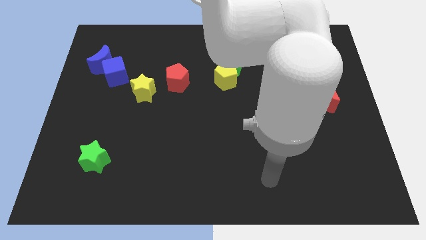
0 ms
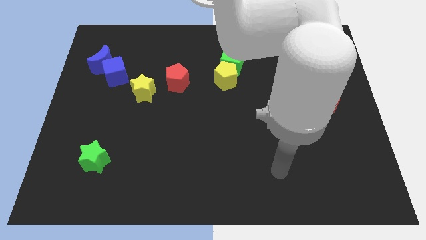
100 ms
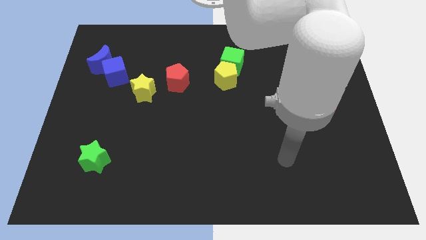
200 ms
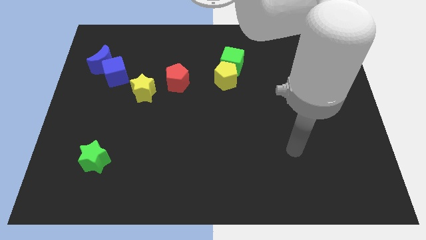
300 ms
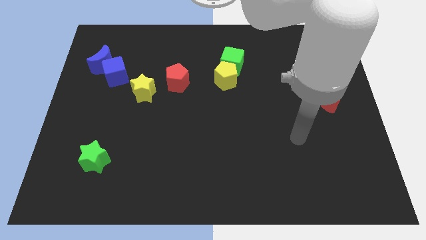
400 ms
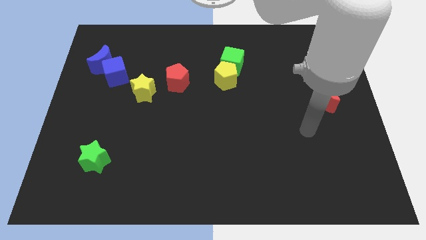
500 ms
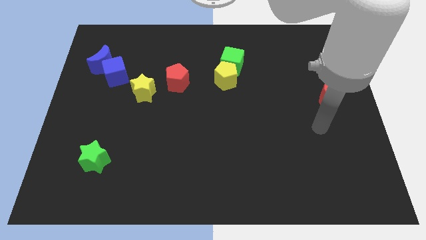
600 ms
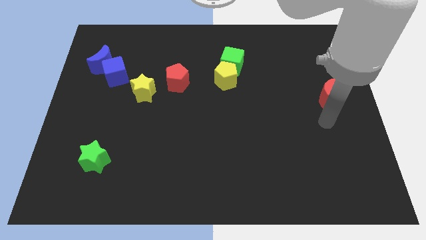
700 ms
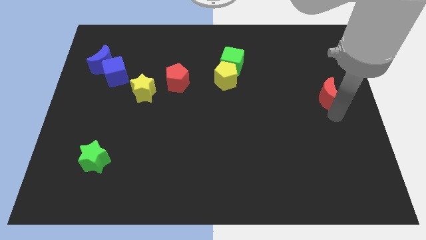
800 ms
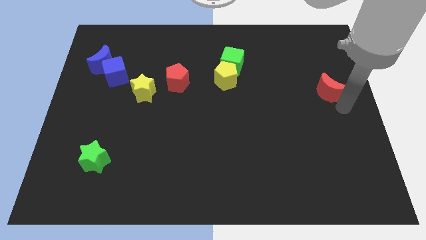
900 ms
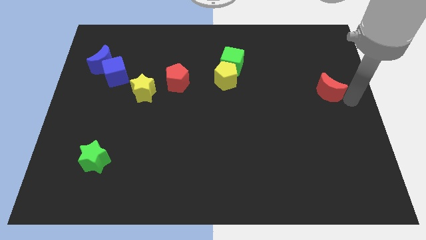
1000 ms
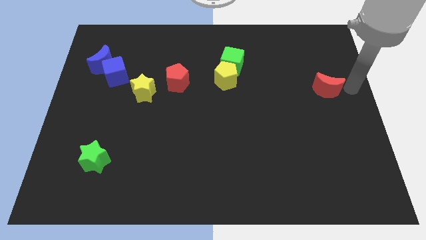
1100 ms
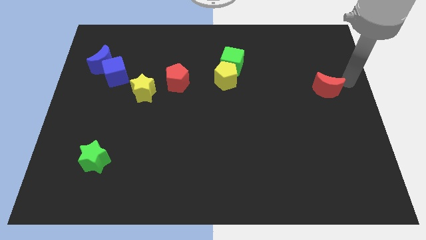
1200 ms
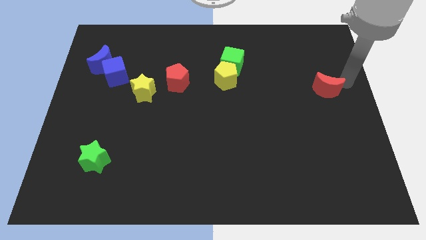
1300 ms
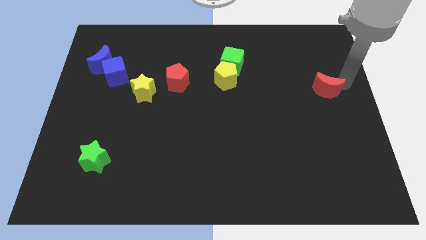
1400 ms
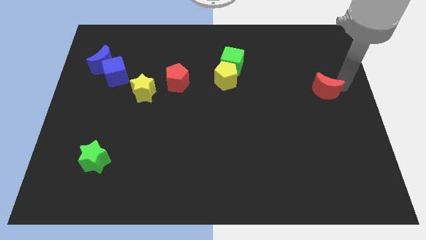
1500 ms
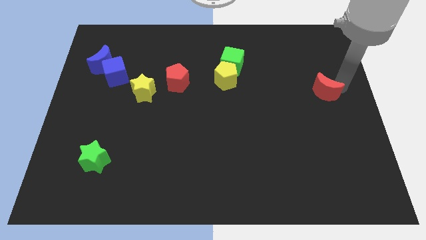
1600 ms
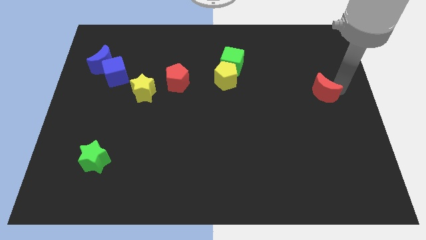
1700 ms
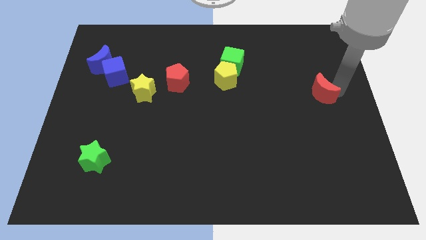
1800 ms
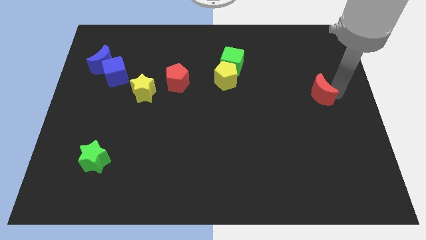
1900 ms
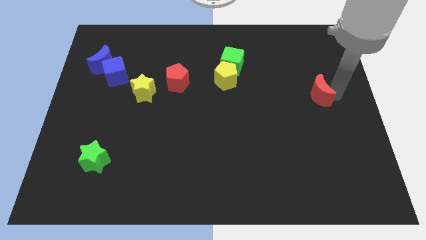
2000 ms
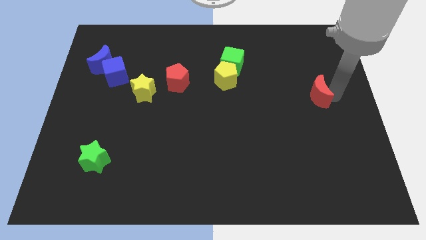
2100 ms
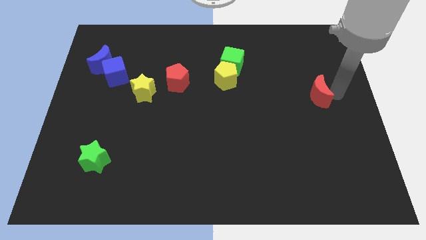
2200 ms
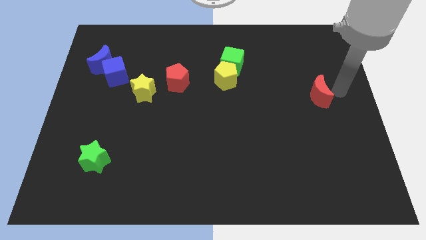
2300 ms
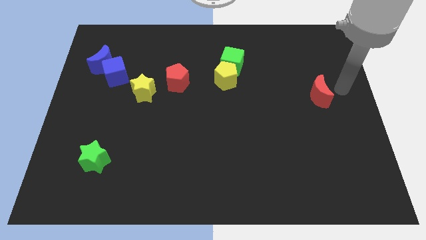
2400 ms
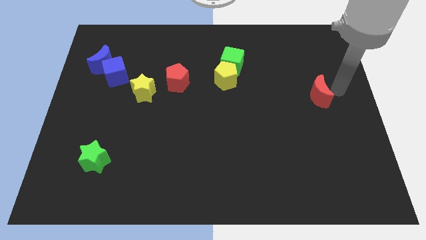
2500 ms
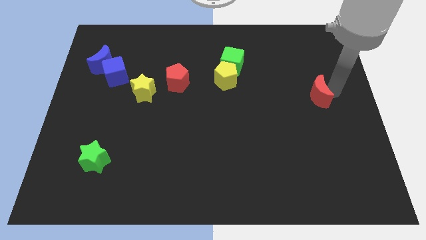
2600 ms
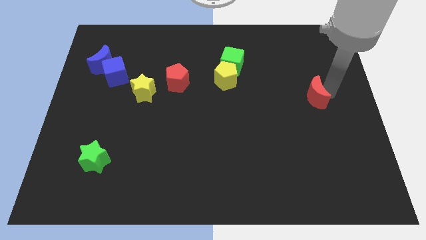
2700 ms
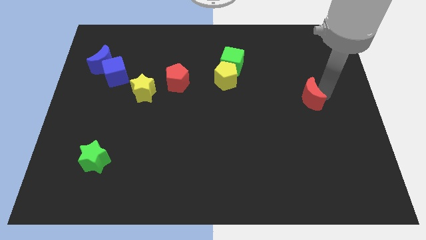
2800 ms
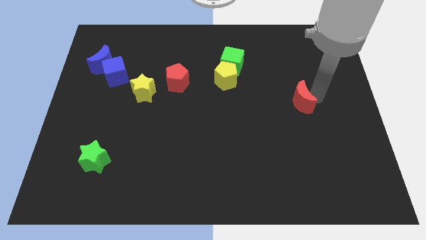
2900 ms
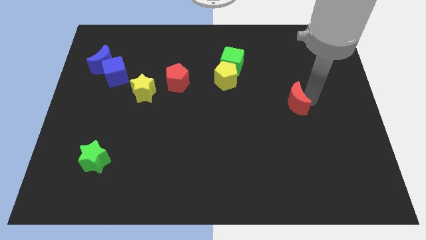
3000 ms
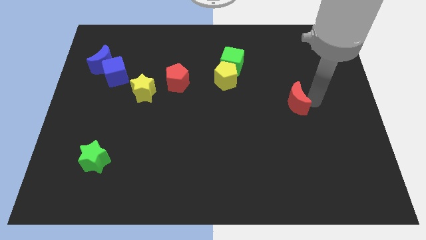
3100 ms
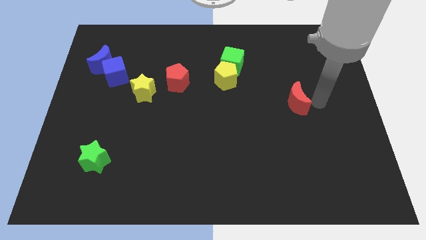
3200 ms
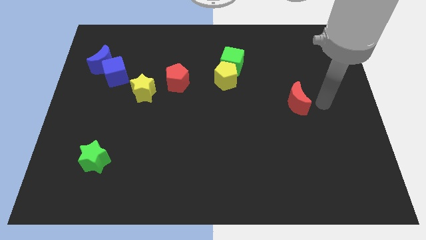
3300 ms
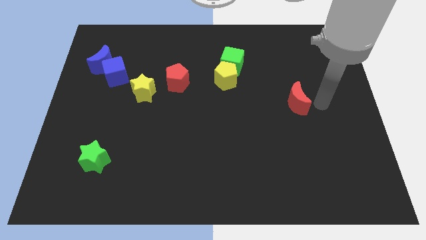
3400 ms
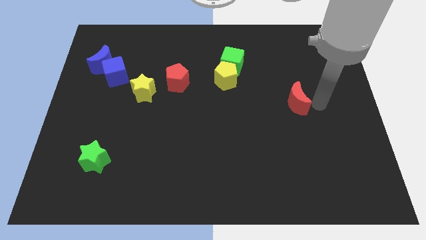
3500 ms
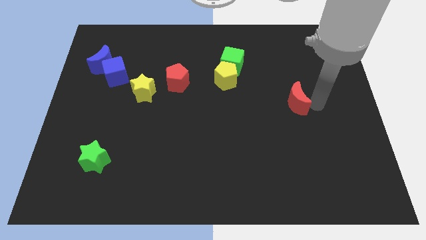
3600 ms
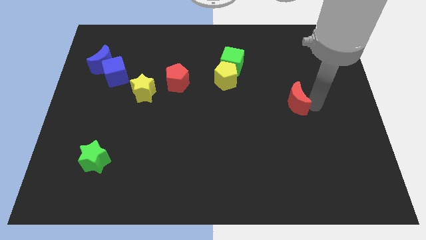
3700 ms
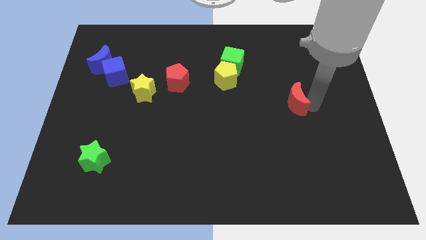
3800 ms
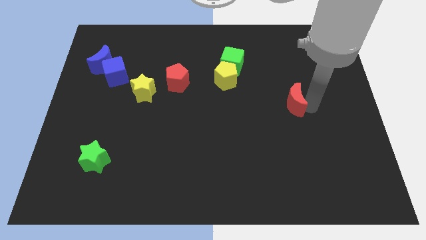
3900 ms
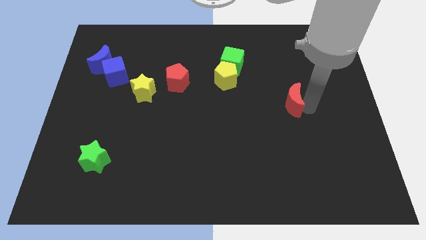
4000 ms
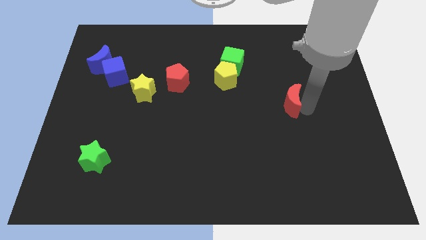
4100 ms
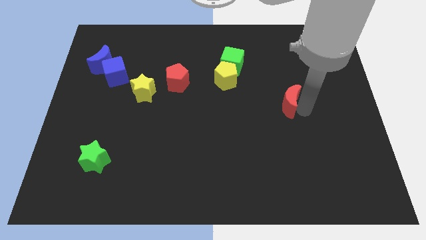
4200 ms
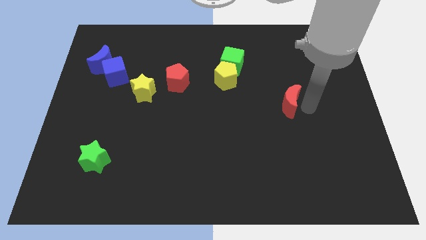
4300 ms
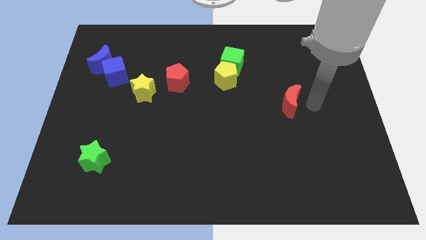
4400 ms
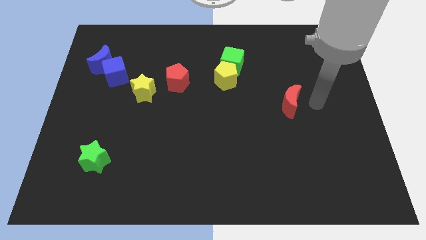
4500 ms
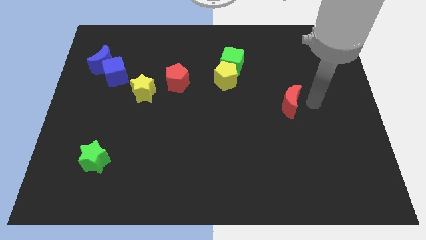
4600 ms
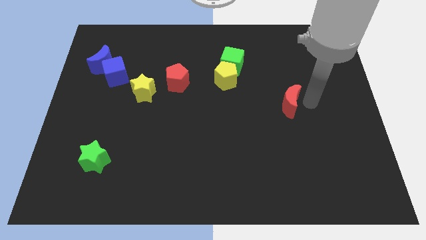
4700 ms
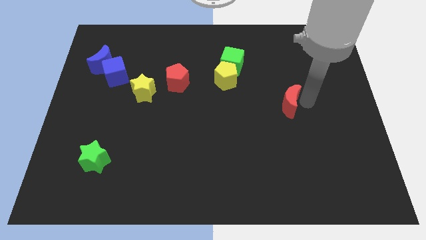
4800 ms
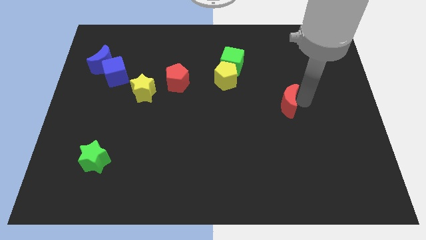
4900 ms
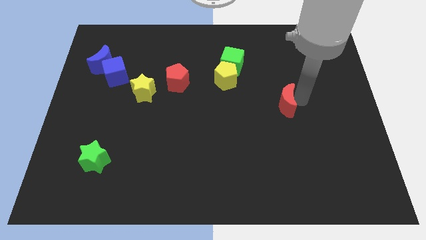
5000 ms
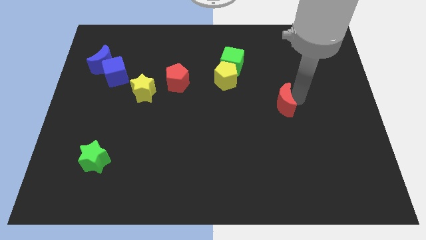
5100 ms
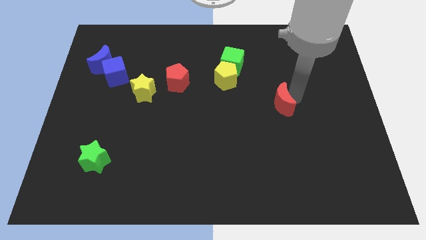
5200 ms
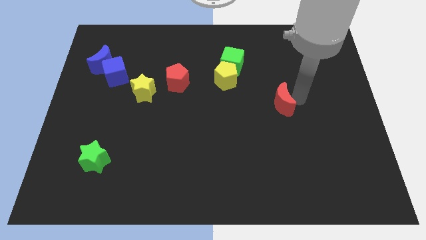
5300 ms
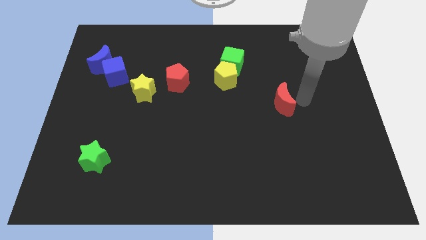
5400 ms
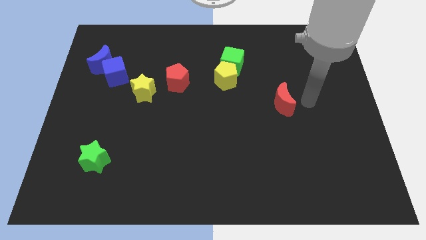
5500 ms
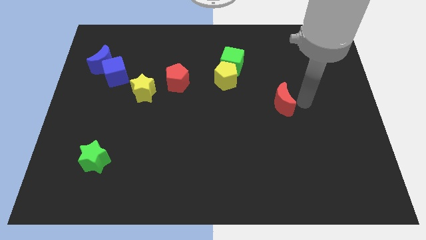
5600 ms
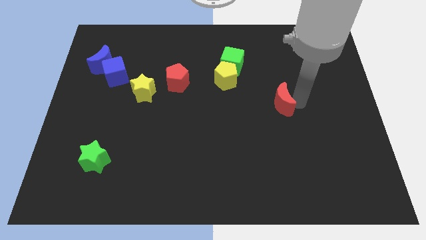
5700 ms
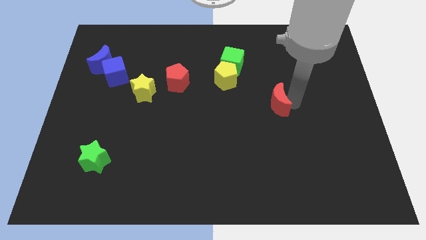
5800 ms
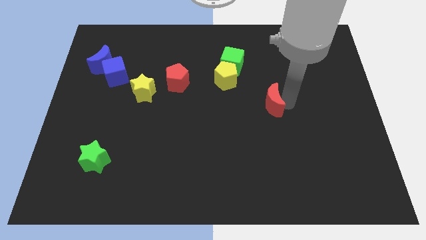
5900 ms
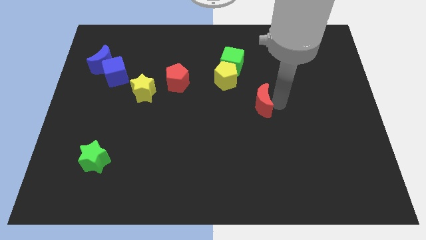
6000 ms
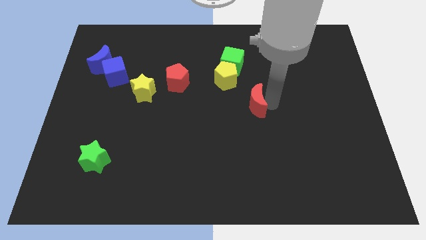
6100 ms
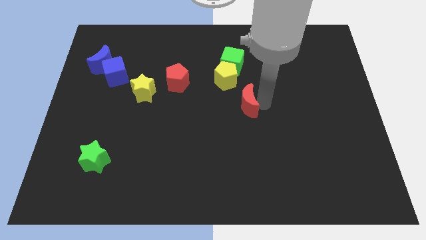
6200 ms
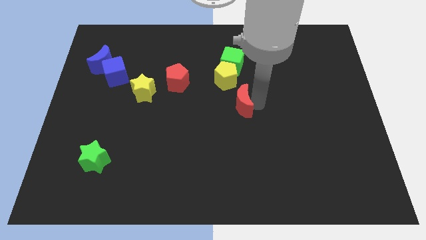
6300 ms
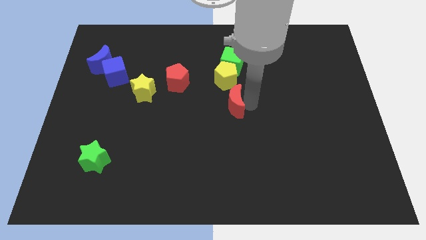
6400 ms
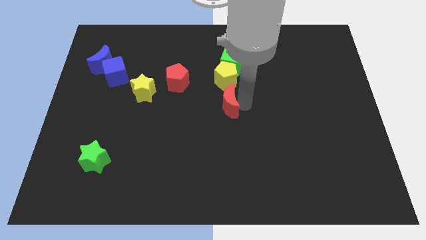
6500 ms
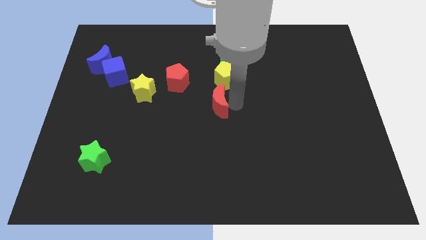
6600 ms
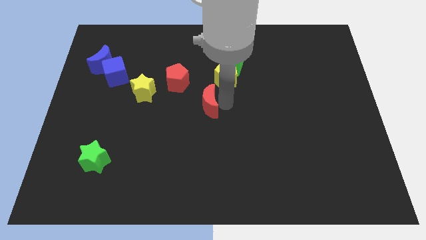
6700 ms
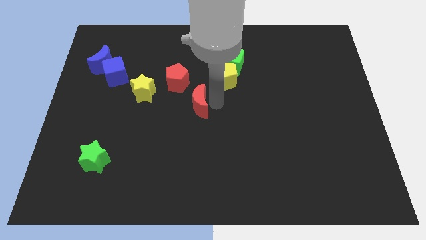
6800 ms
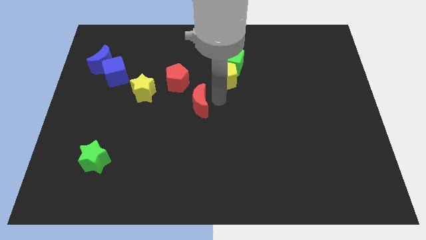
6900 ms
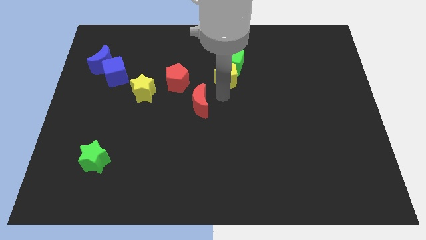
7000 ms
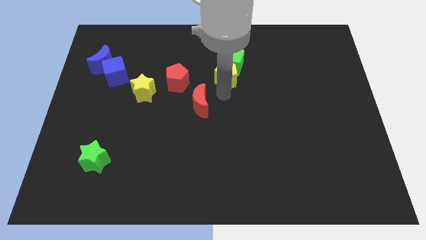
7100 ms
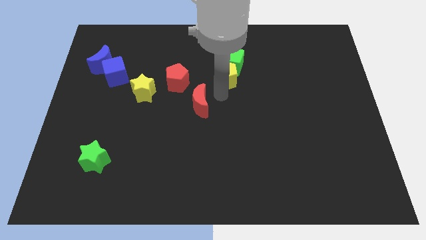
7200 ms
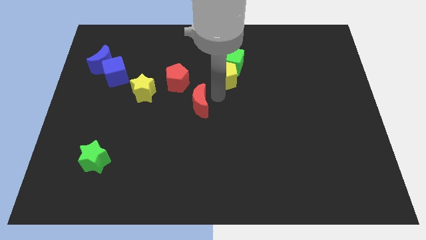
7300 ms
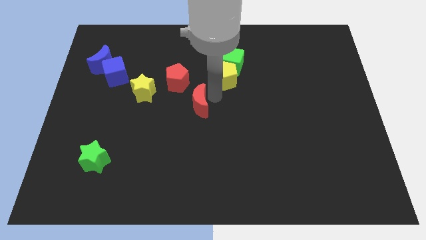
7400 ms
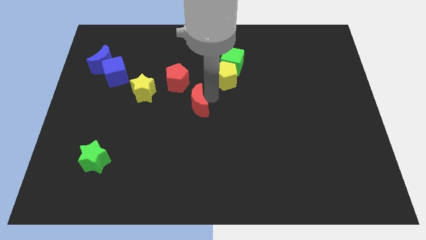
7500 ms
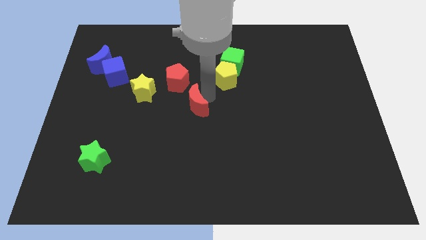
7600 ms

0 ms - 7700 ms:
slide the red moon to the bottom side of the red pentagon
